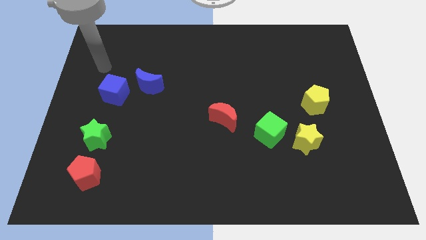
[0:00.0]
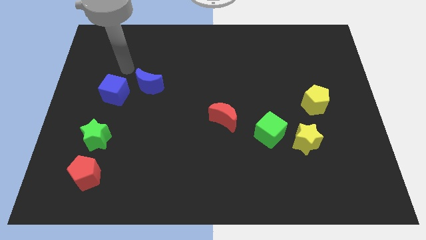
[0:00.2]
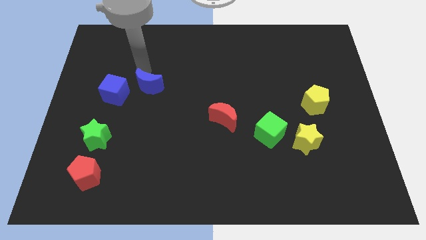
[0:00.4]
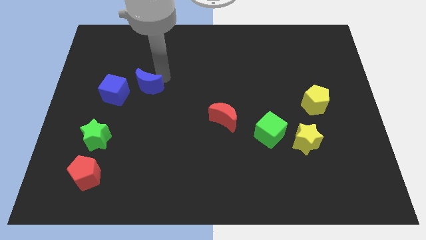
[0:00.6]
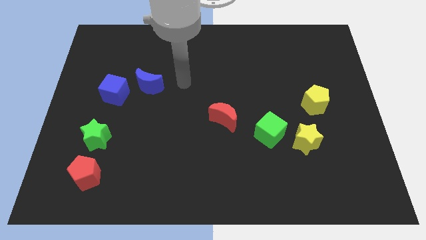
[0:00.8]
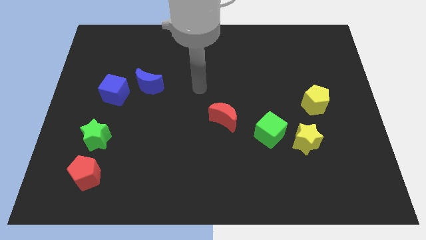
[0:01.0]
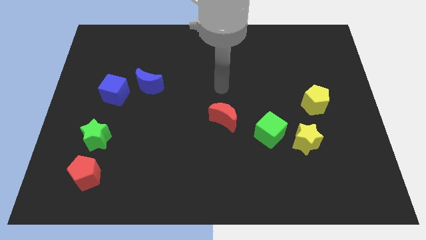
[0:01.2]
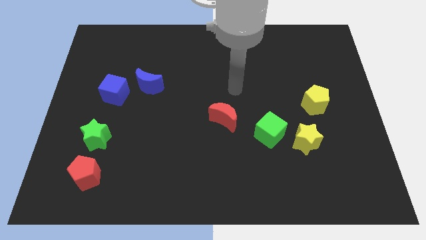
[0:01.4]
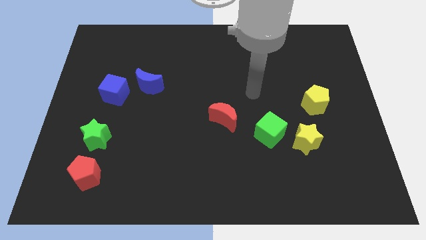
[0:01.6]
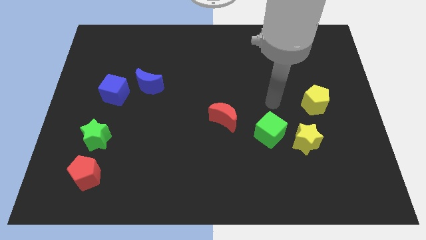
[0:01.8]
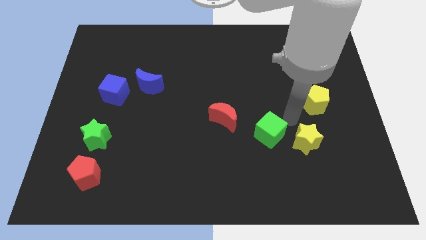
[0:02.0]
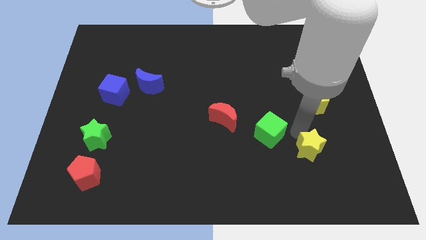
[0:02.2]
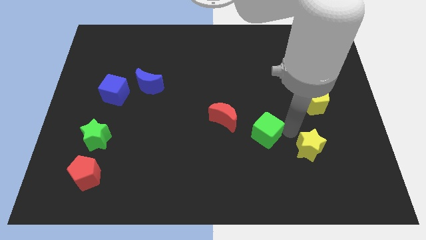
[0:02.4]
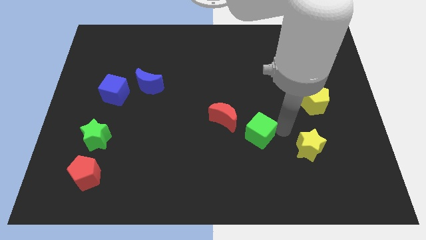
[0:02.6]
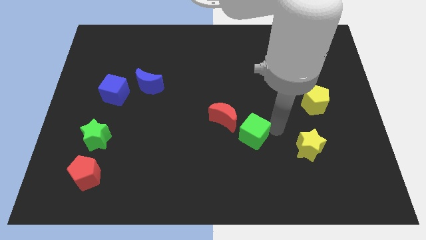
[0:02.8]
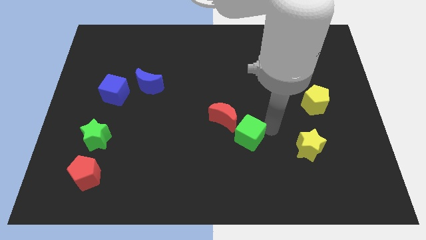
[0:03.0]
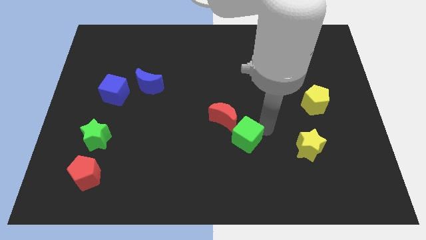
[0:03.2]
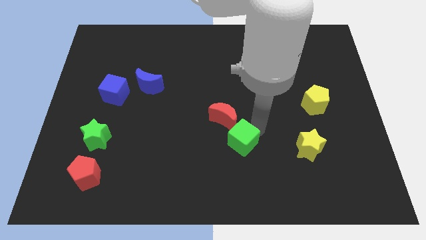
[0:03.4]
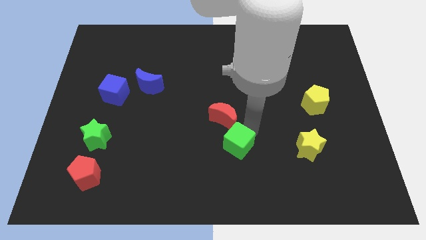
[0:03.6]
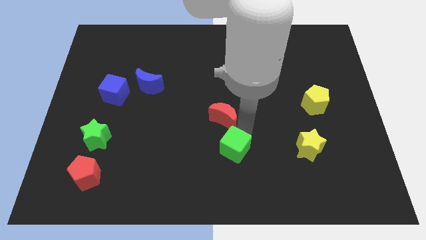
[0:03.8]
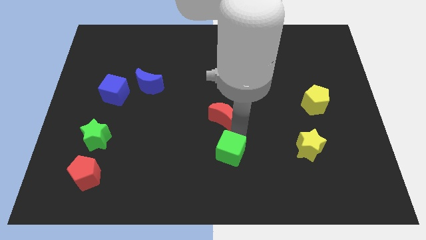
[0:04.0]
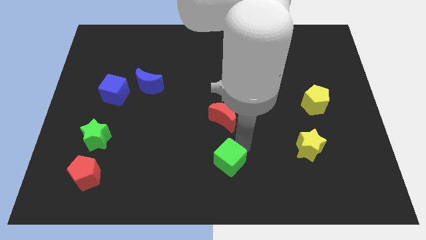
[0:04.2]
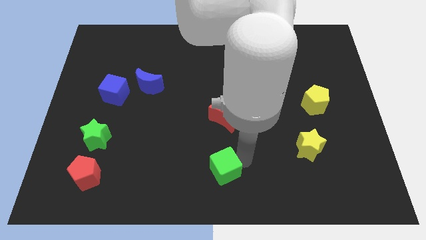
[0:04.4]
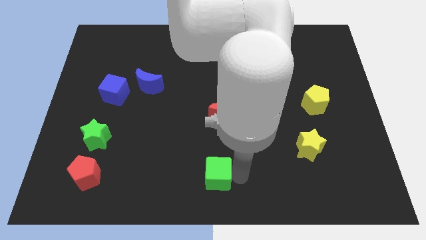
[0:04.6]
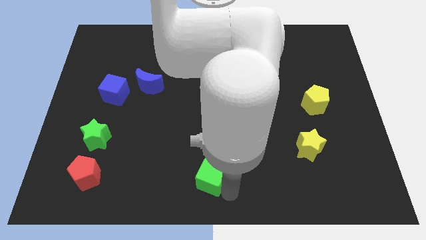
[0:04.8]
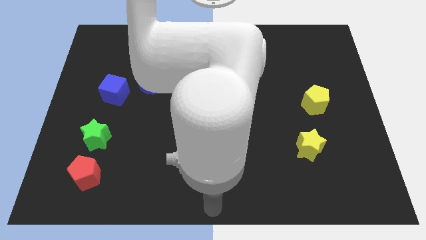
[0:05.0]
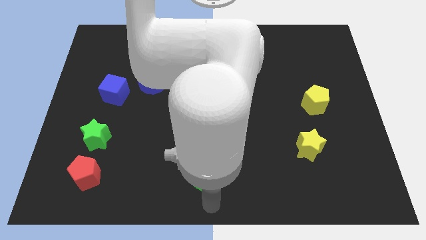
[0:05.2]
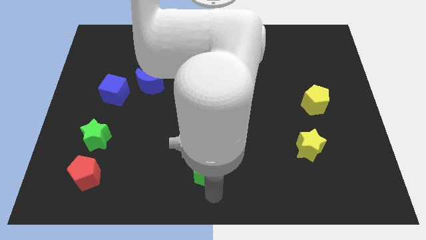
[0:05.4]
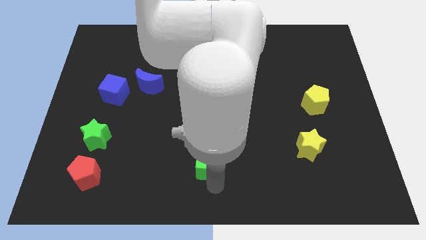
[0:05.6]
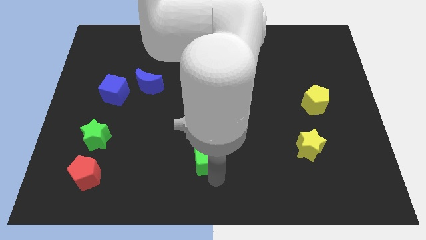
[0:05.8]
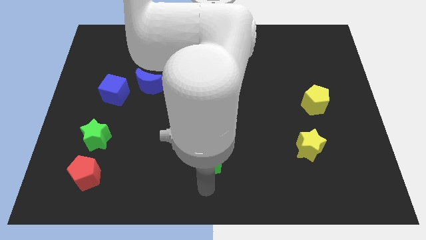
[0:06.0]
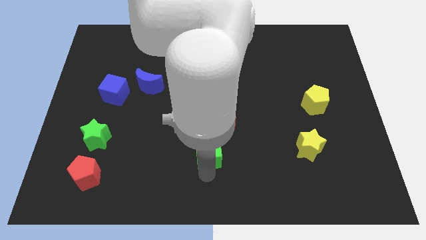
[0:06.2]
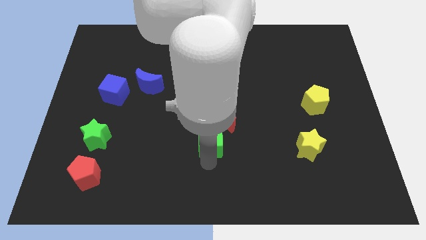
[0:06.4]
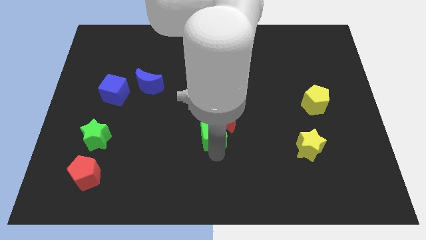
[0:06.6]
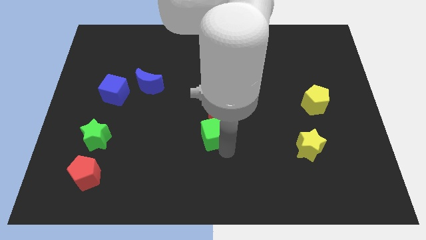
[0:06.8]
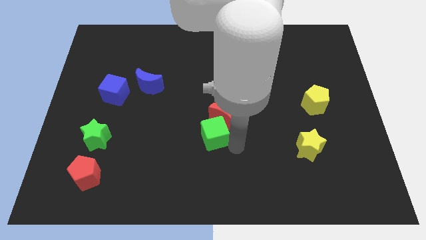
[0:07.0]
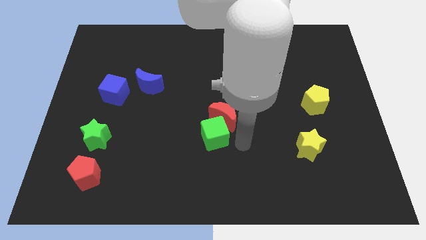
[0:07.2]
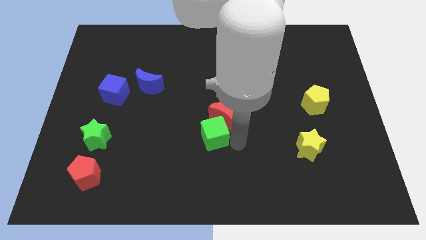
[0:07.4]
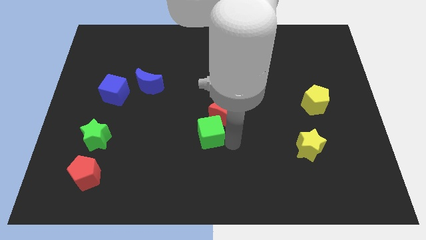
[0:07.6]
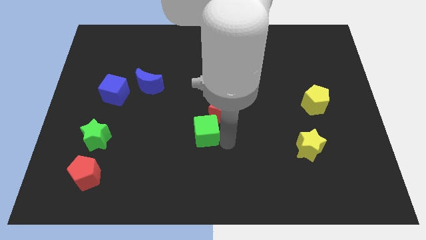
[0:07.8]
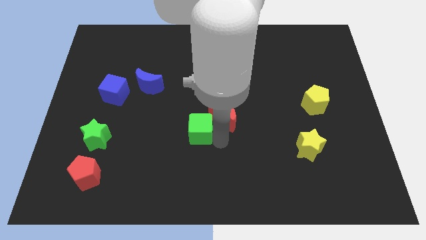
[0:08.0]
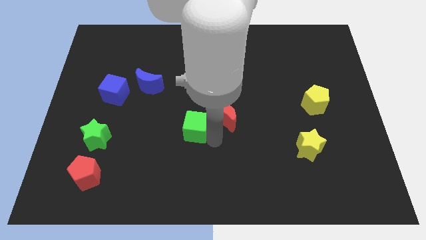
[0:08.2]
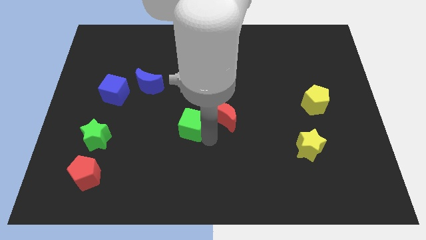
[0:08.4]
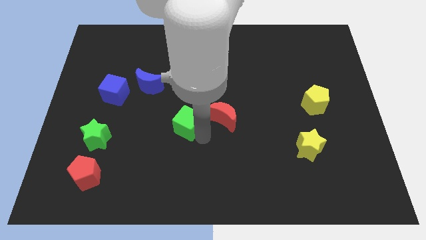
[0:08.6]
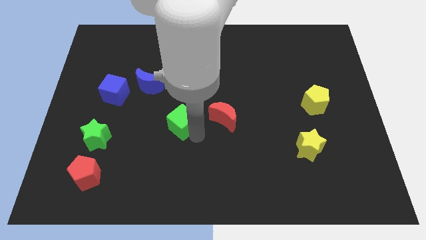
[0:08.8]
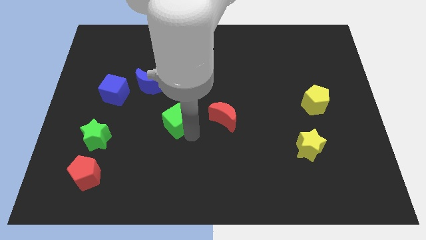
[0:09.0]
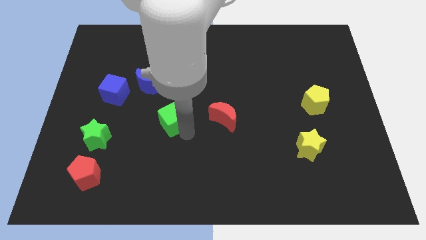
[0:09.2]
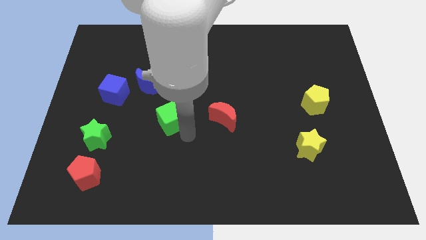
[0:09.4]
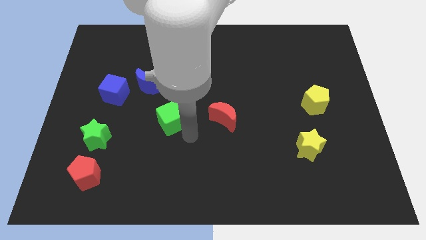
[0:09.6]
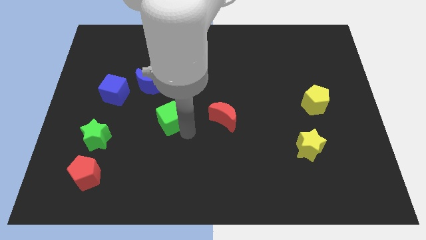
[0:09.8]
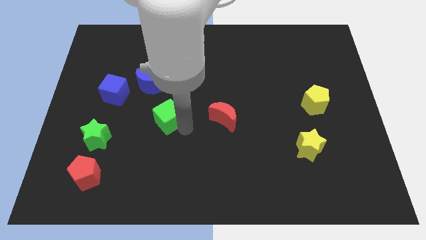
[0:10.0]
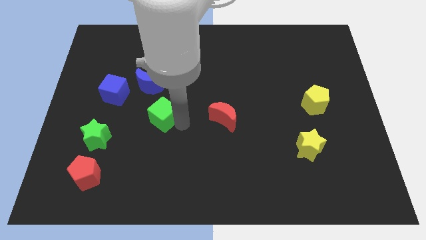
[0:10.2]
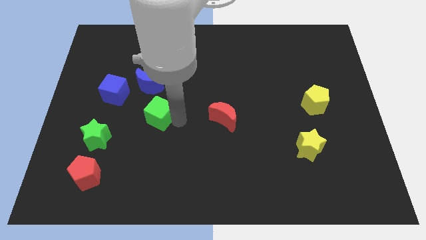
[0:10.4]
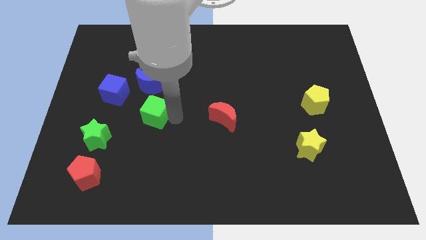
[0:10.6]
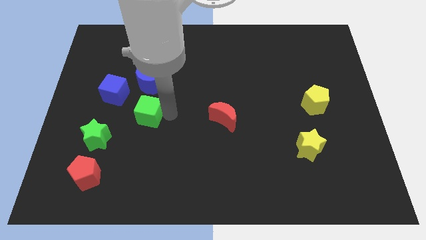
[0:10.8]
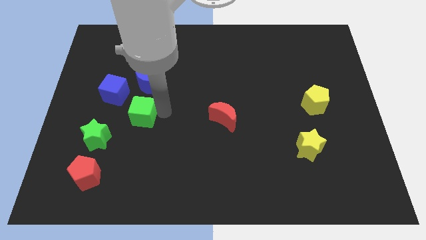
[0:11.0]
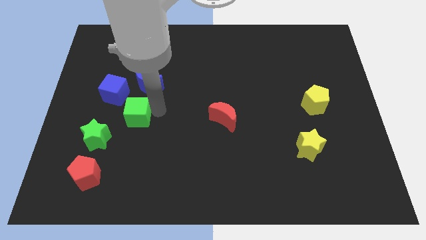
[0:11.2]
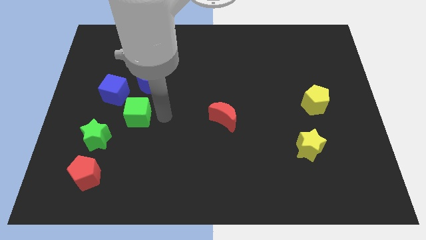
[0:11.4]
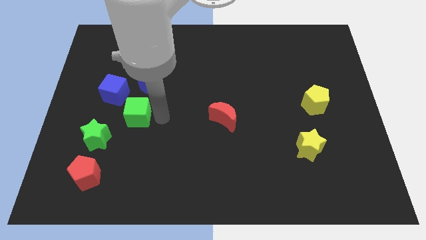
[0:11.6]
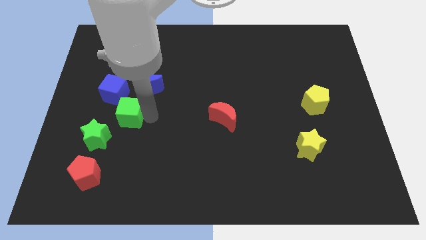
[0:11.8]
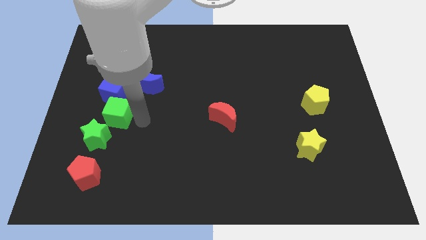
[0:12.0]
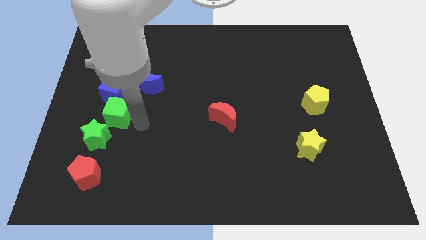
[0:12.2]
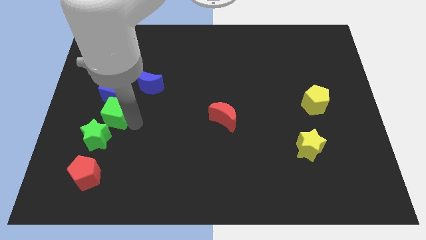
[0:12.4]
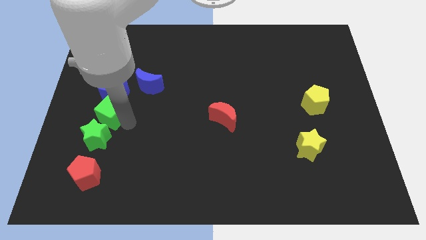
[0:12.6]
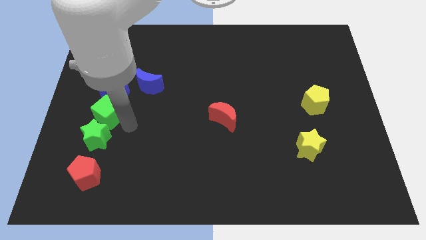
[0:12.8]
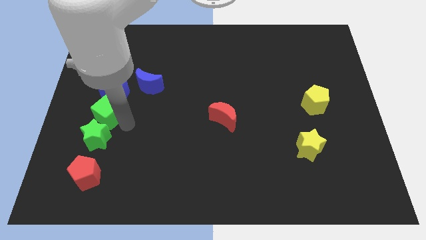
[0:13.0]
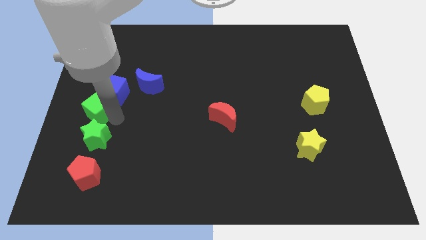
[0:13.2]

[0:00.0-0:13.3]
slide the green cube to the center left
